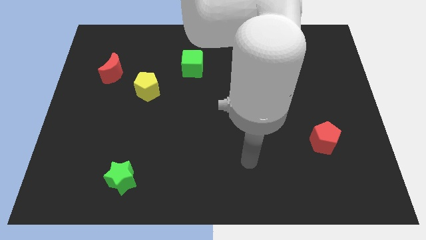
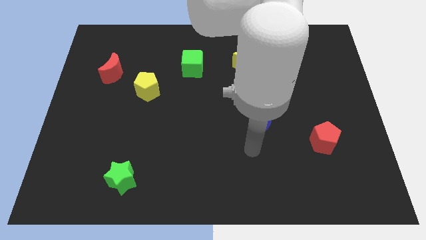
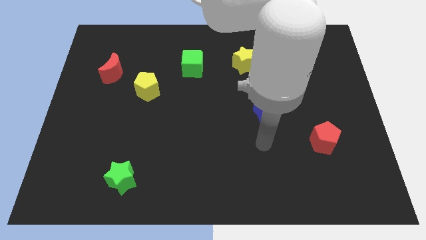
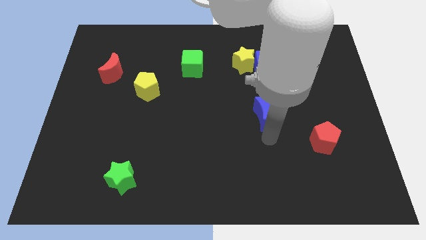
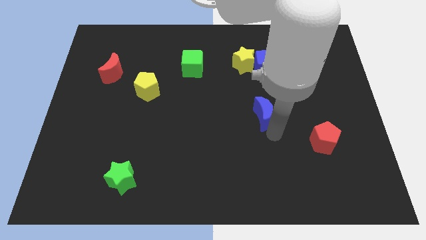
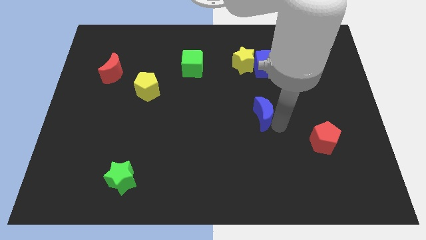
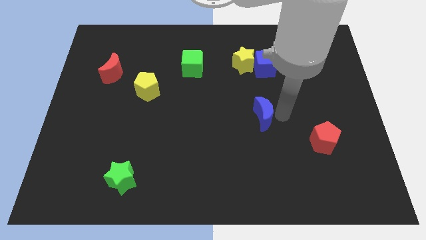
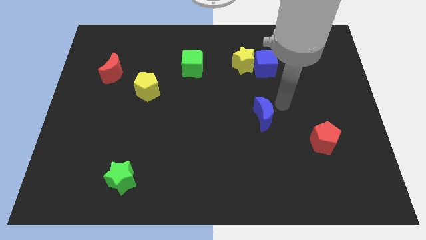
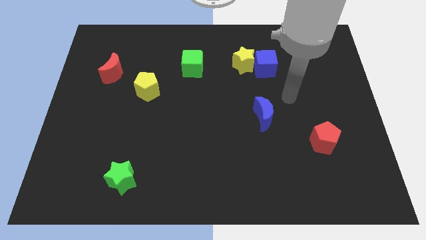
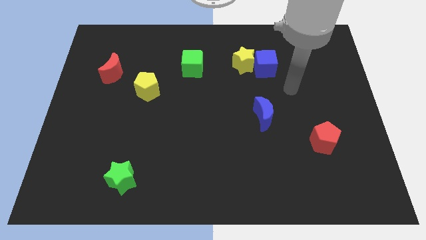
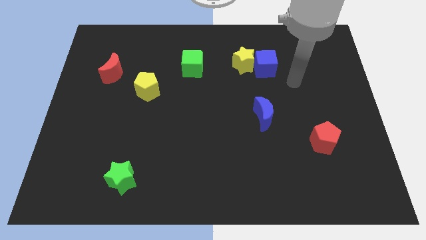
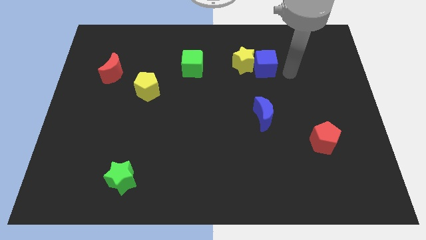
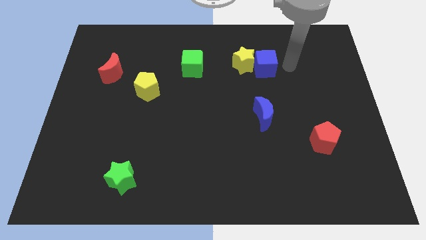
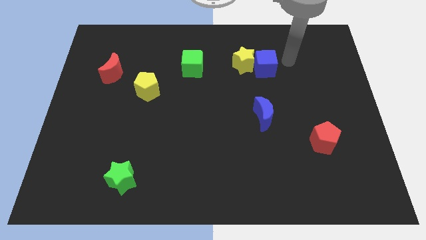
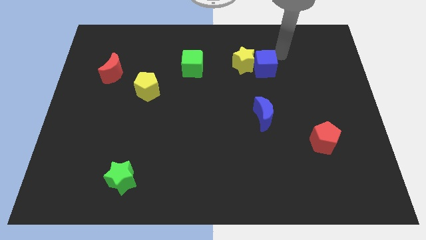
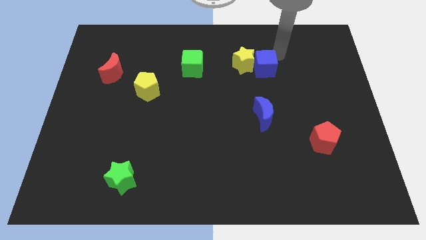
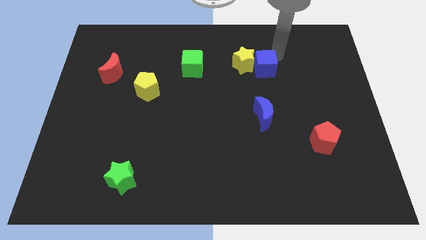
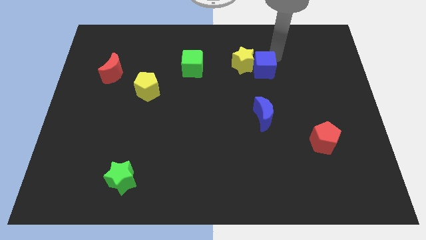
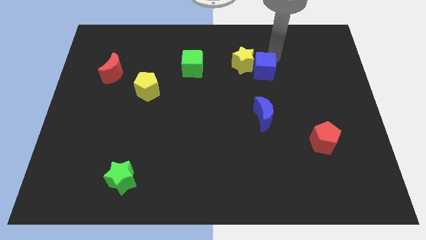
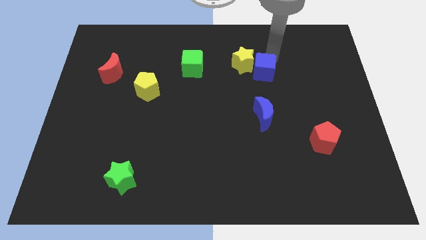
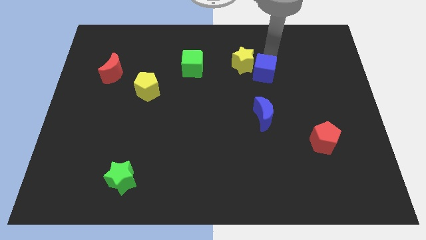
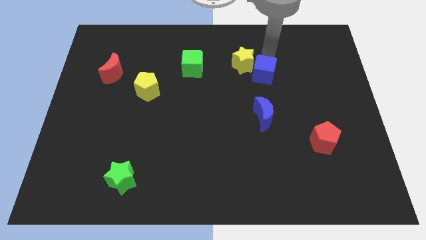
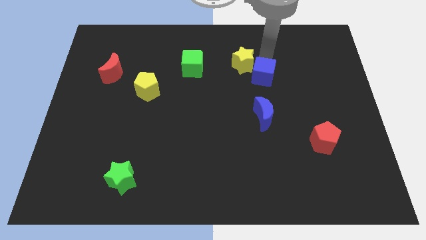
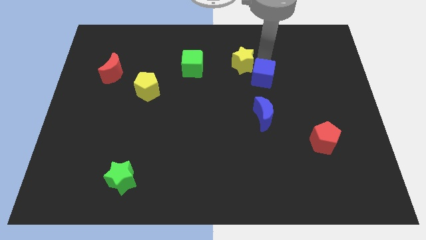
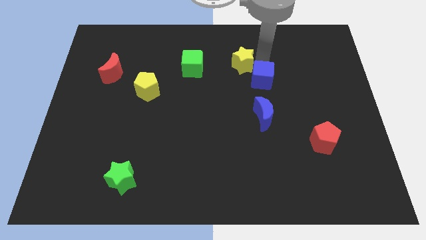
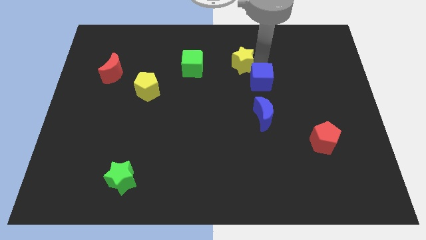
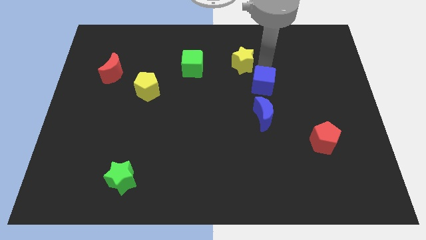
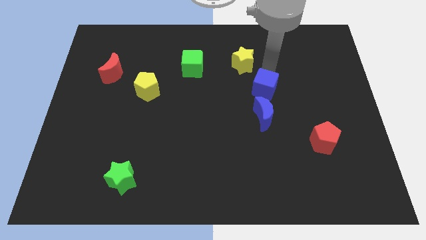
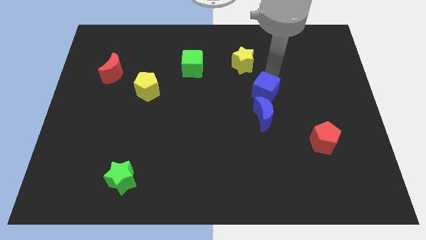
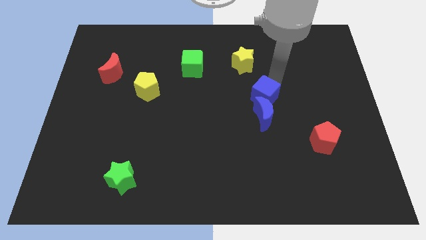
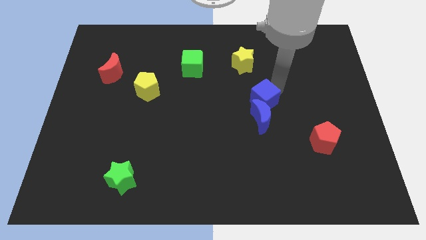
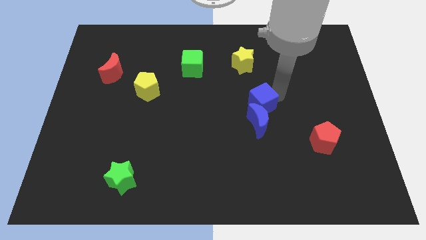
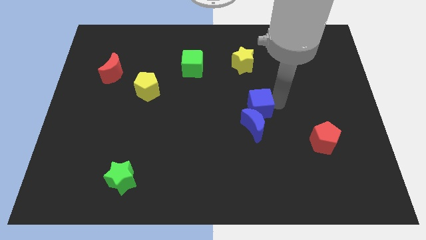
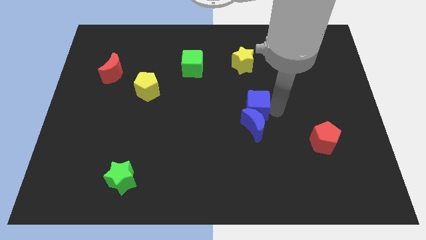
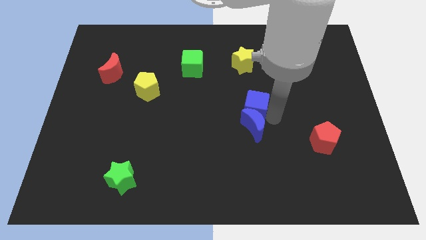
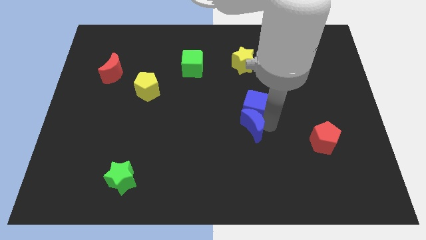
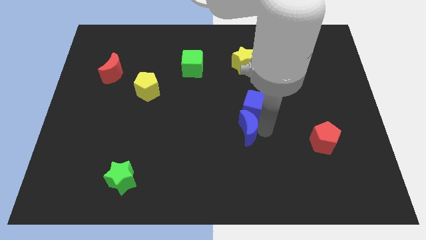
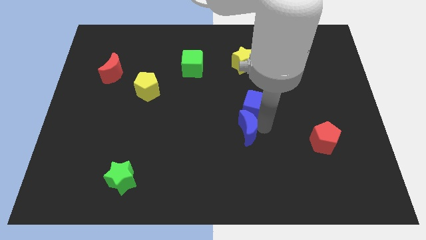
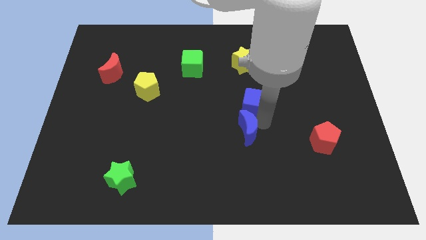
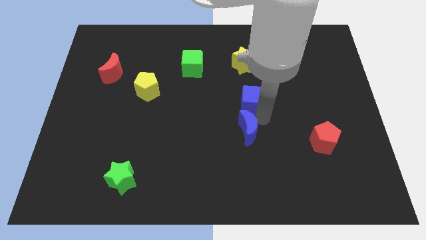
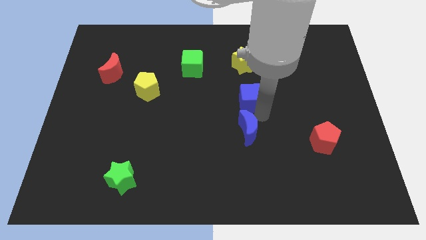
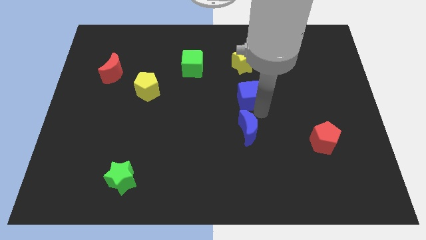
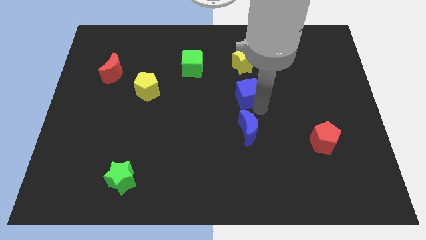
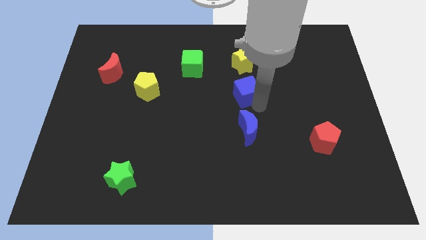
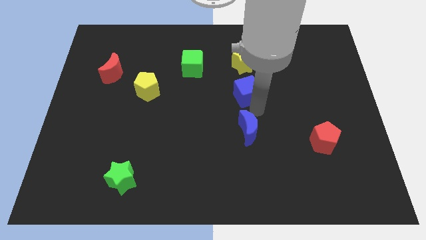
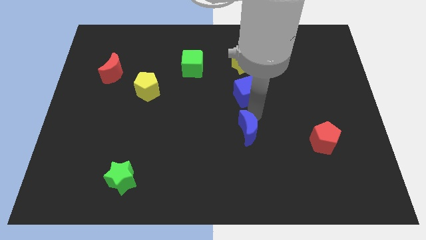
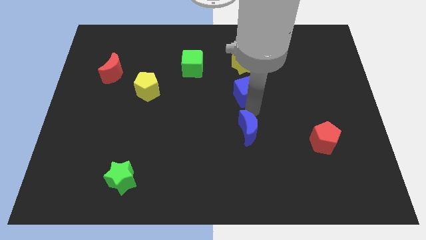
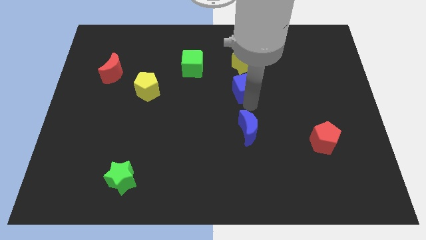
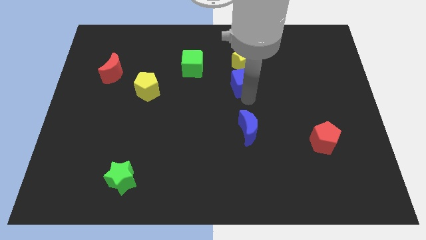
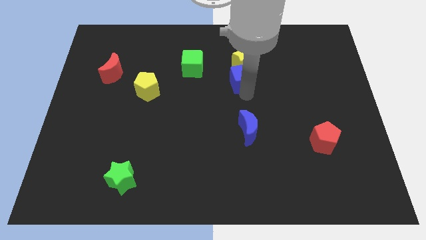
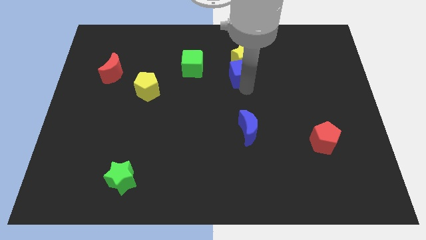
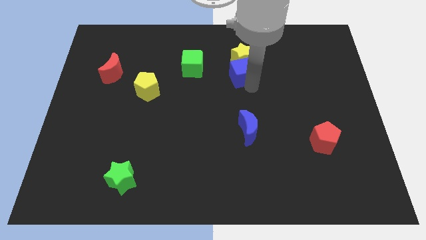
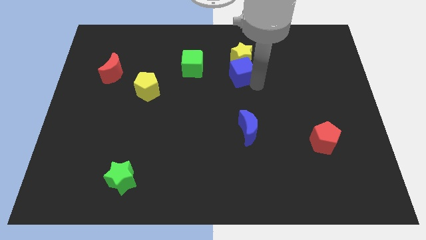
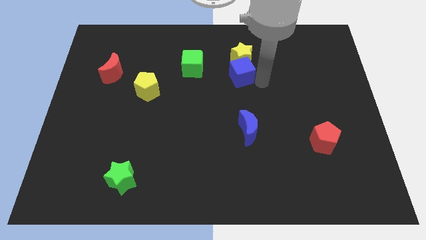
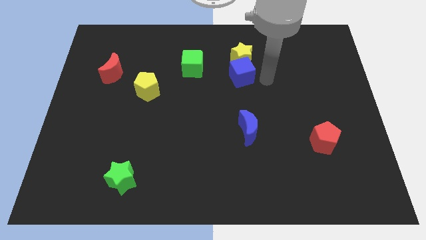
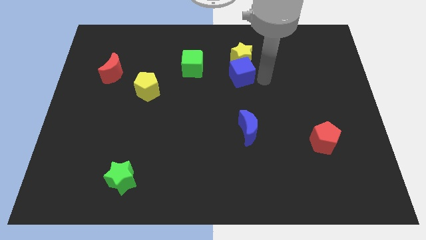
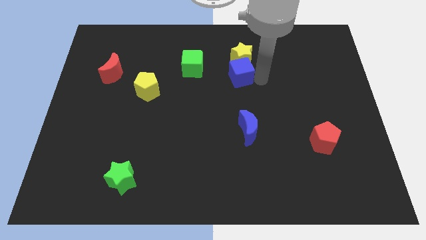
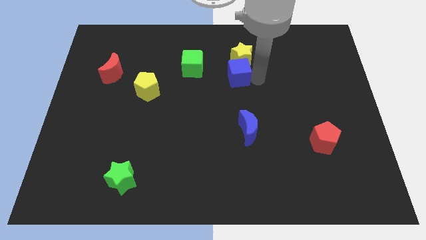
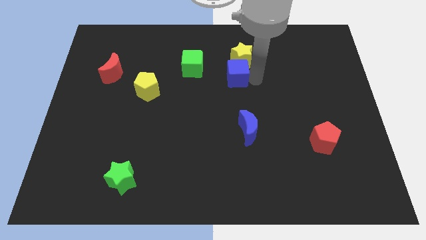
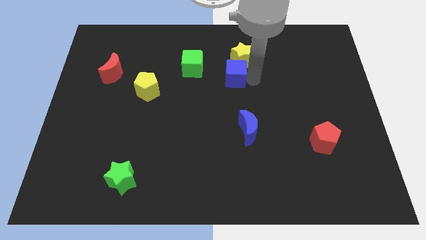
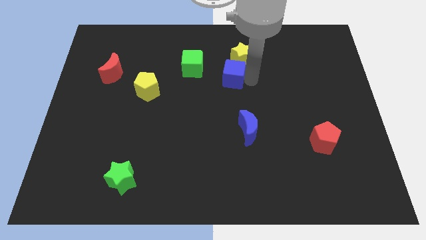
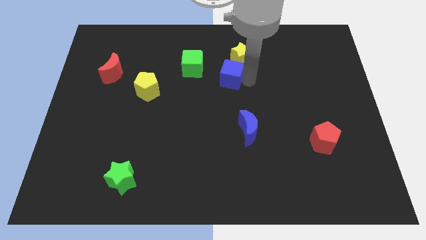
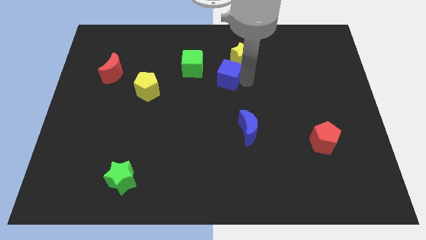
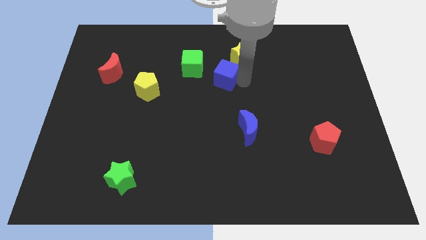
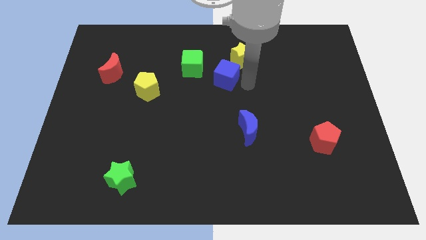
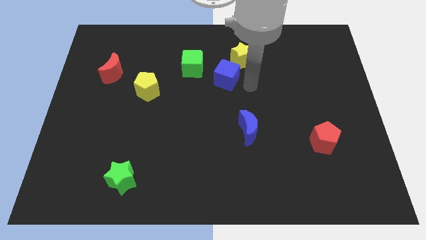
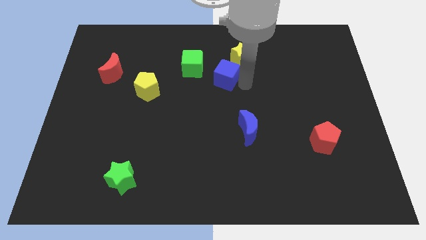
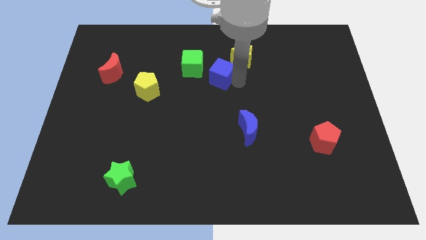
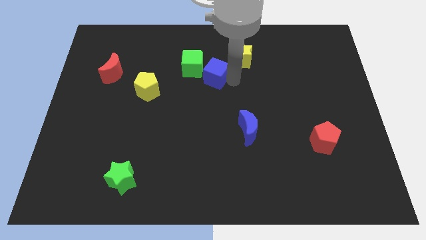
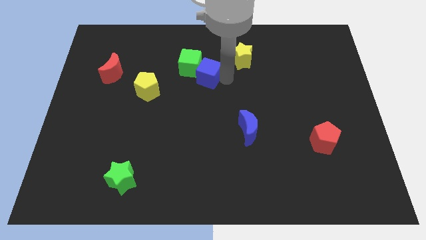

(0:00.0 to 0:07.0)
put the blue cube to the green cube

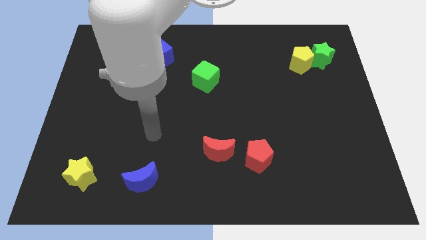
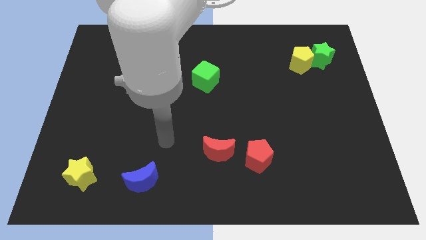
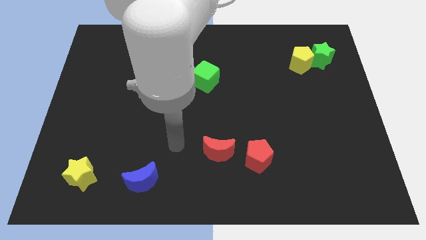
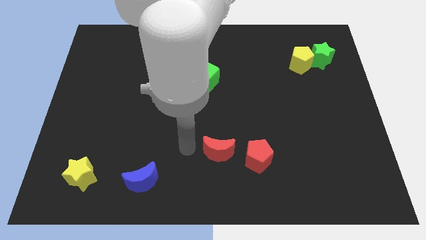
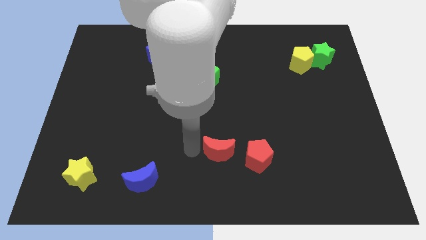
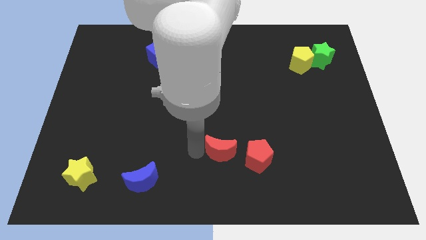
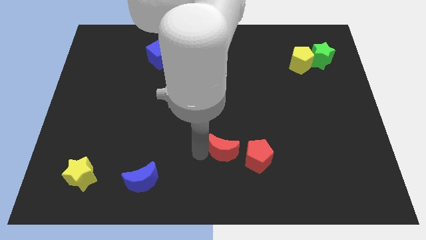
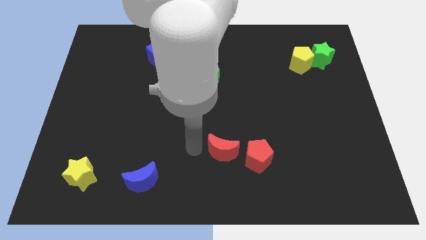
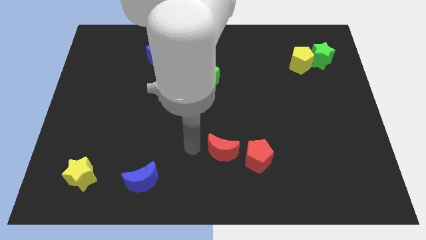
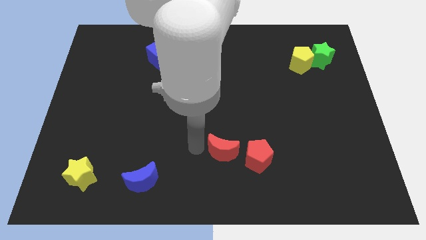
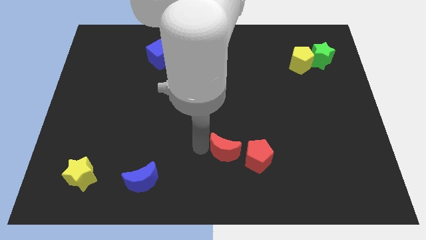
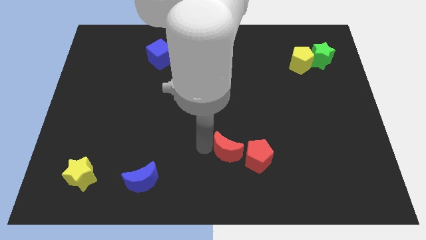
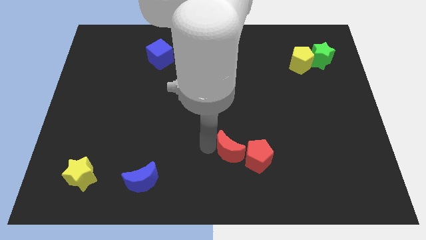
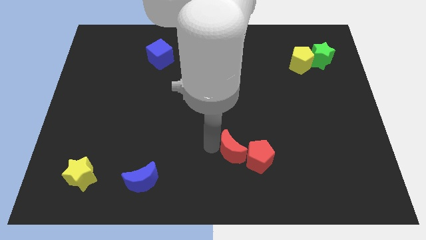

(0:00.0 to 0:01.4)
slide the red moon next to the red pentagon
